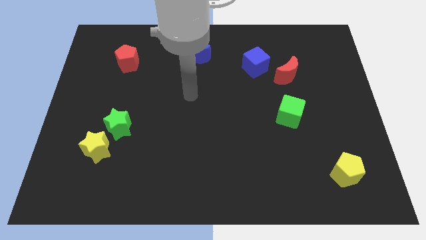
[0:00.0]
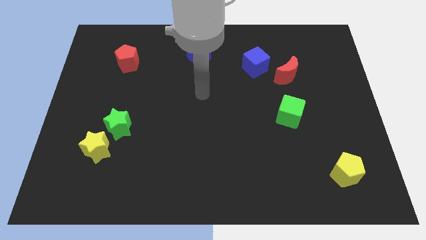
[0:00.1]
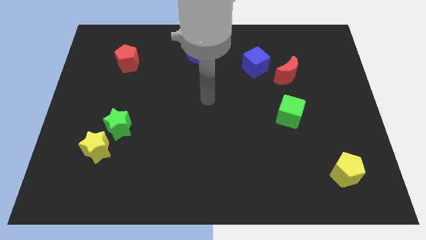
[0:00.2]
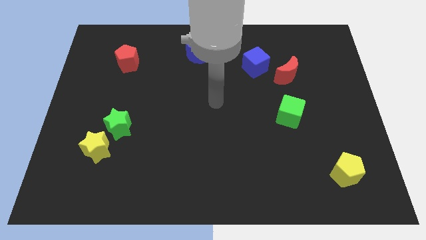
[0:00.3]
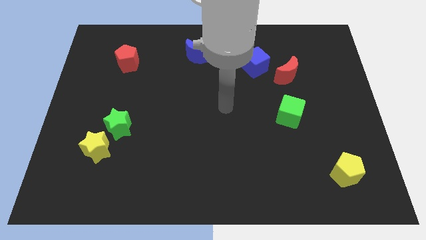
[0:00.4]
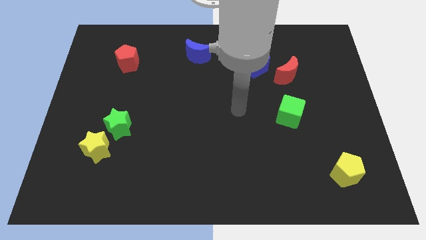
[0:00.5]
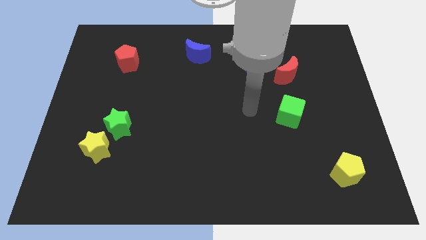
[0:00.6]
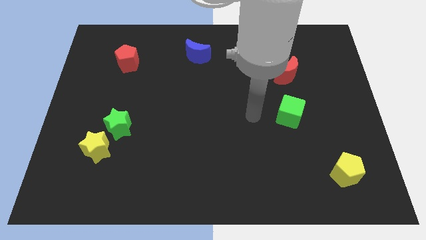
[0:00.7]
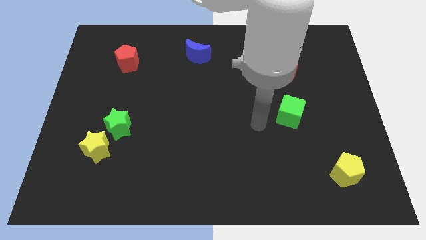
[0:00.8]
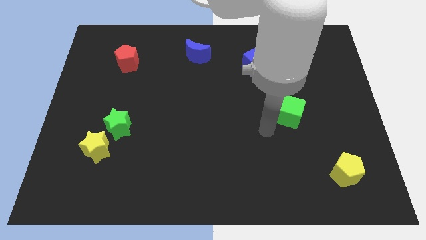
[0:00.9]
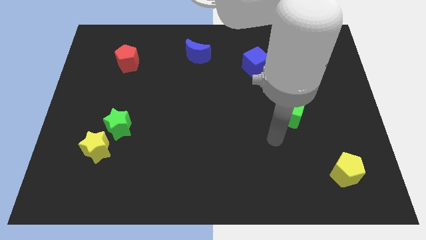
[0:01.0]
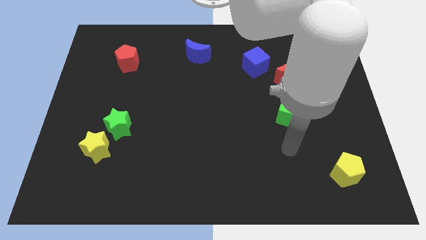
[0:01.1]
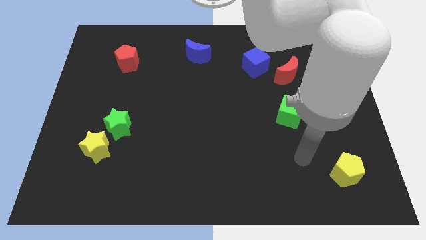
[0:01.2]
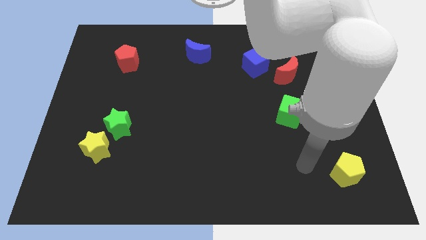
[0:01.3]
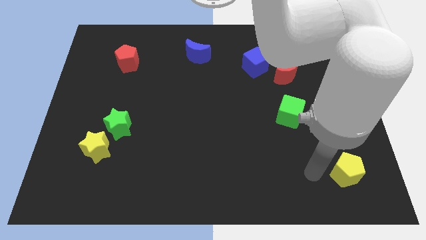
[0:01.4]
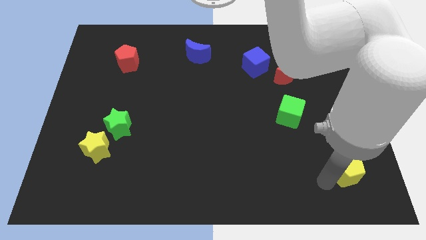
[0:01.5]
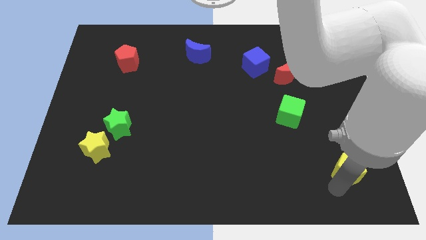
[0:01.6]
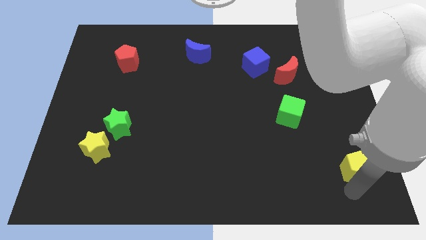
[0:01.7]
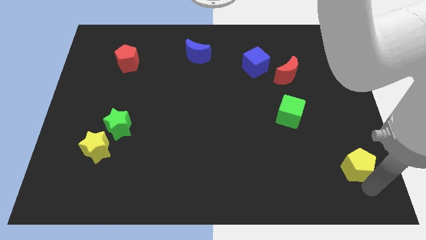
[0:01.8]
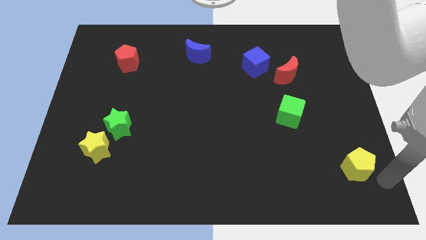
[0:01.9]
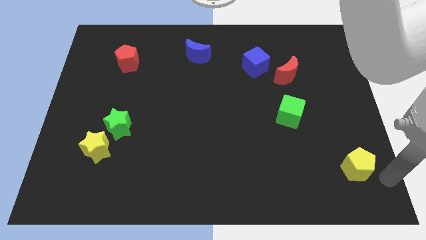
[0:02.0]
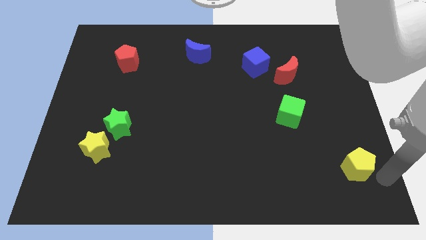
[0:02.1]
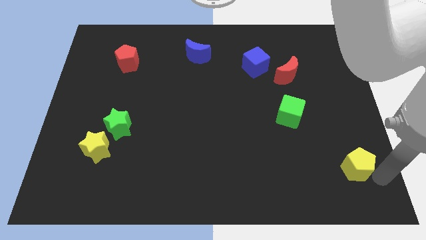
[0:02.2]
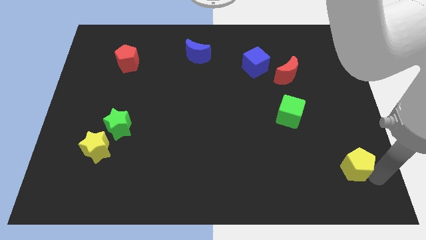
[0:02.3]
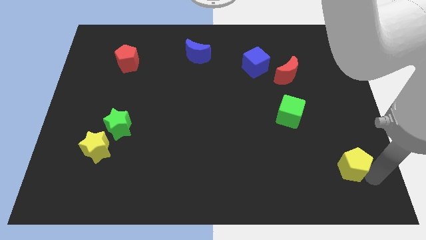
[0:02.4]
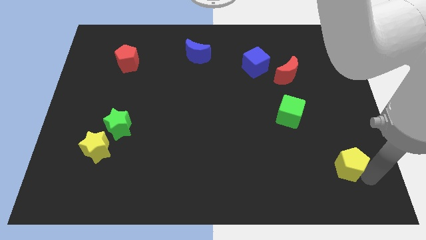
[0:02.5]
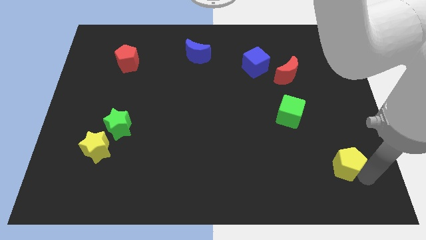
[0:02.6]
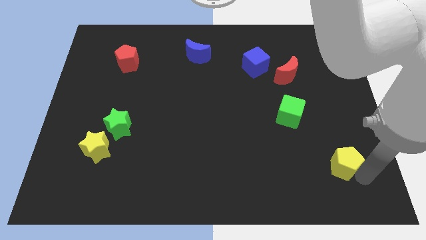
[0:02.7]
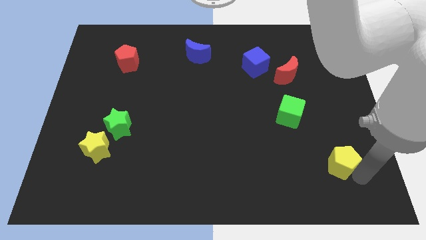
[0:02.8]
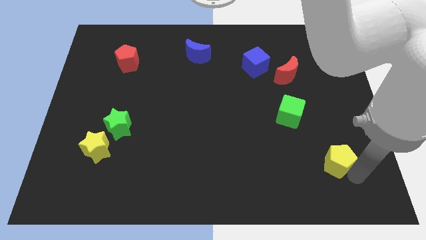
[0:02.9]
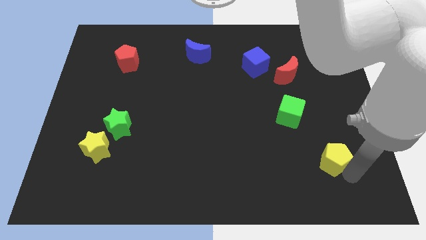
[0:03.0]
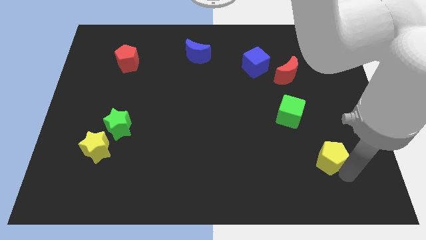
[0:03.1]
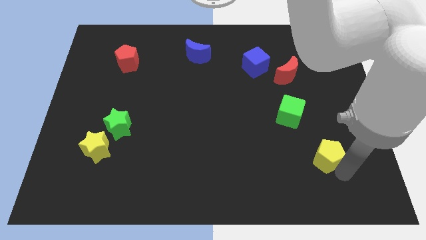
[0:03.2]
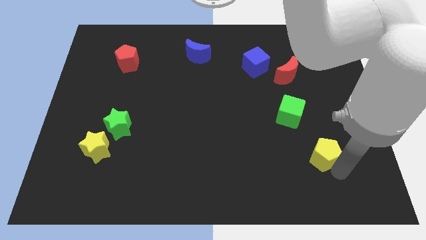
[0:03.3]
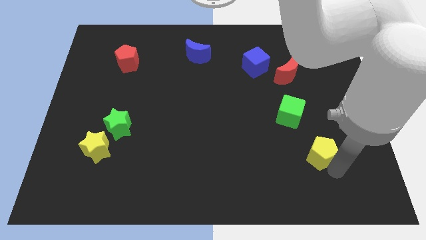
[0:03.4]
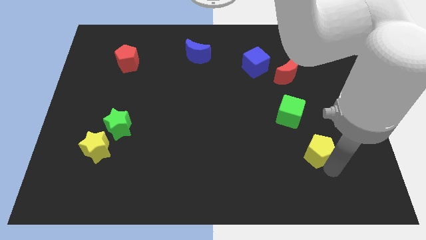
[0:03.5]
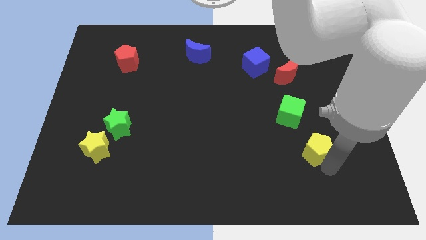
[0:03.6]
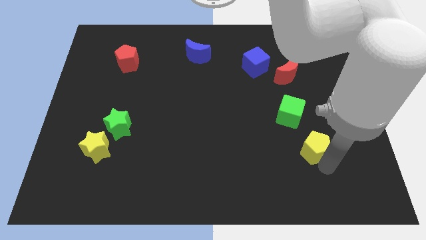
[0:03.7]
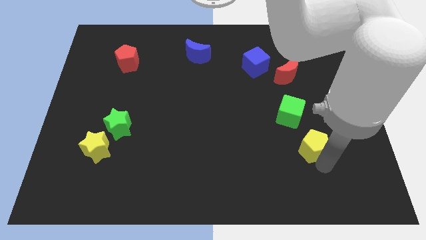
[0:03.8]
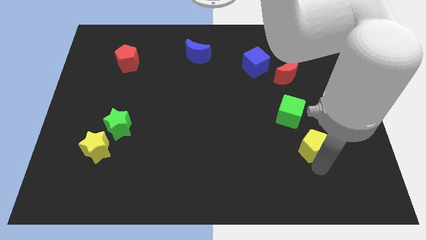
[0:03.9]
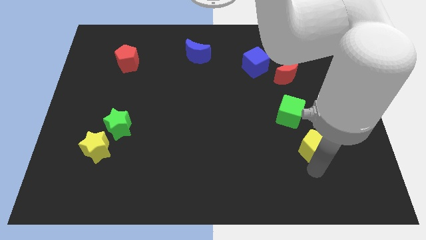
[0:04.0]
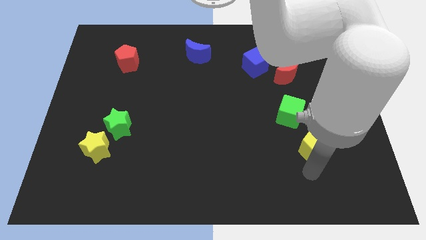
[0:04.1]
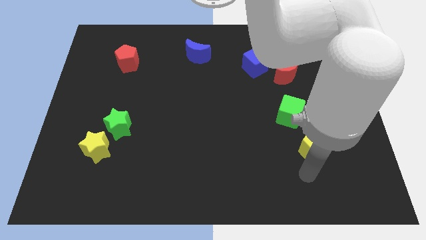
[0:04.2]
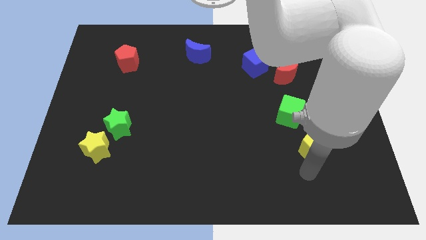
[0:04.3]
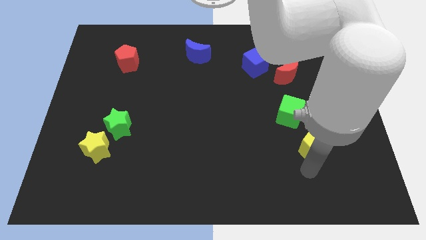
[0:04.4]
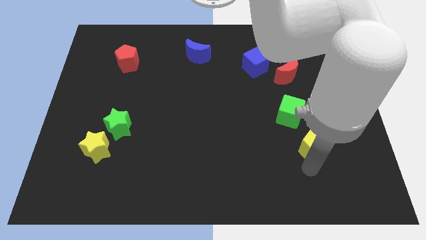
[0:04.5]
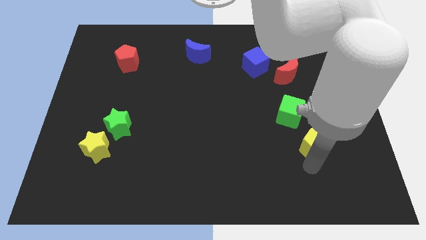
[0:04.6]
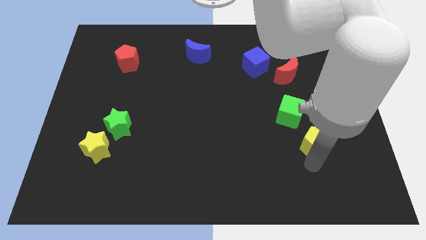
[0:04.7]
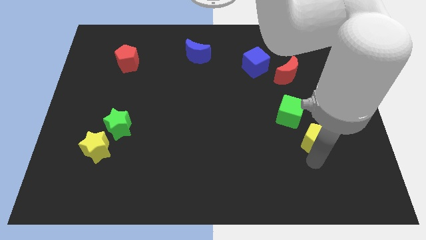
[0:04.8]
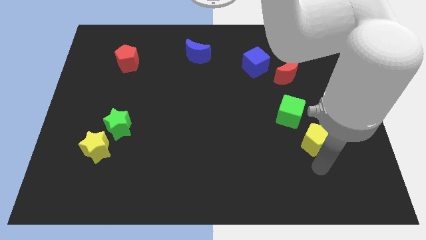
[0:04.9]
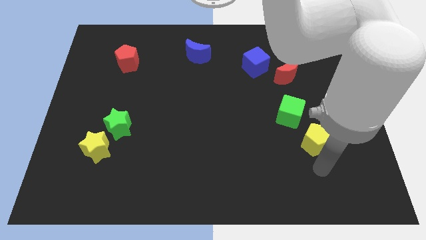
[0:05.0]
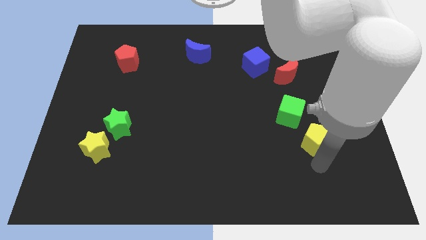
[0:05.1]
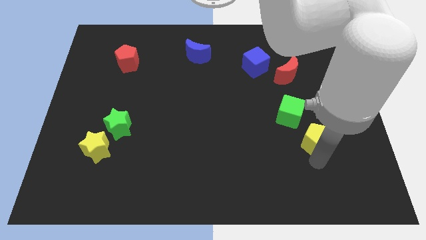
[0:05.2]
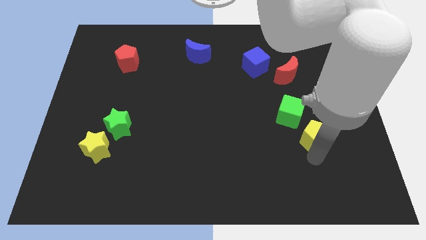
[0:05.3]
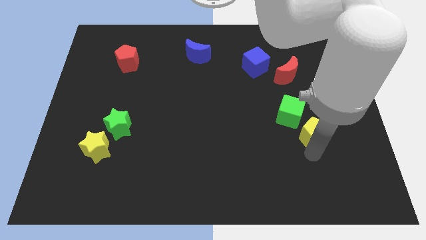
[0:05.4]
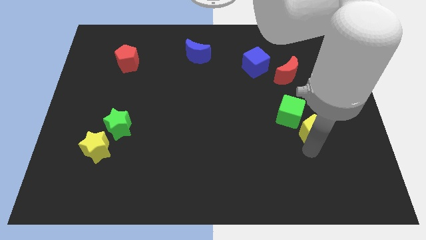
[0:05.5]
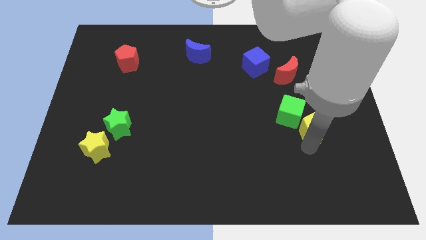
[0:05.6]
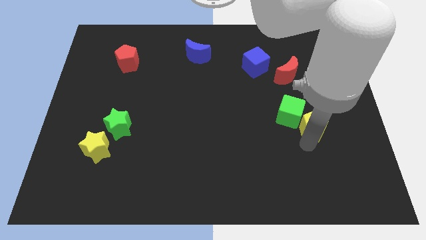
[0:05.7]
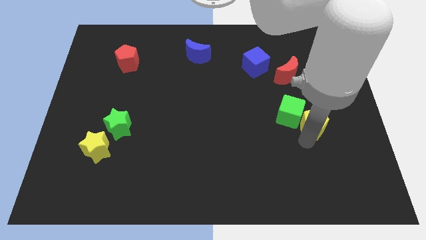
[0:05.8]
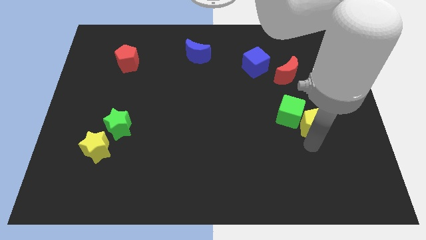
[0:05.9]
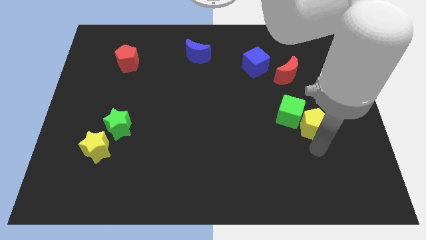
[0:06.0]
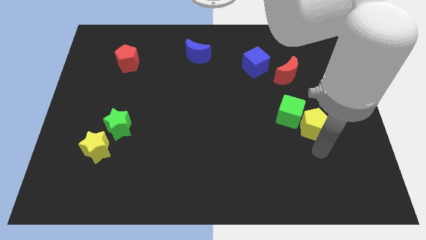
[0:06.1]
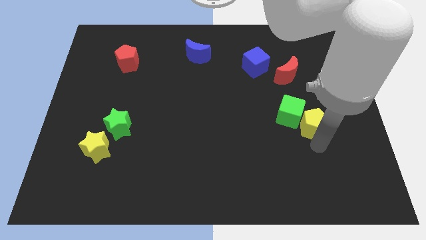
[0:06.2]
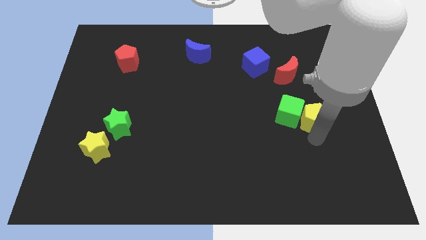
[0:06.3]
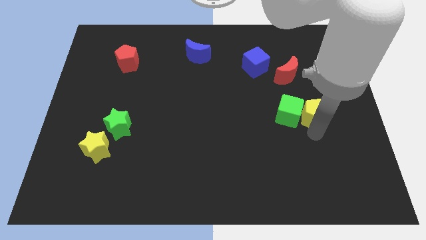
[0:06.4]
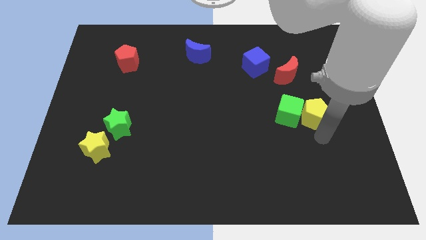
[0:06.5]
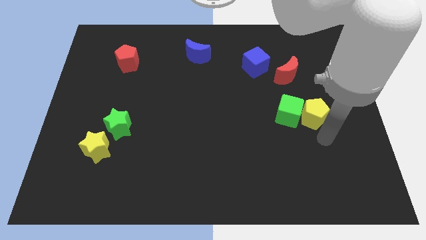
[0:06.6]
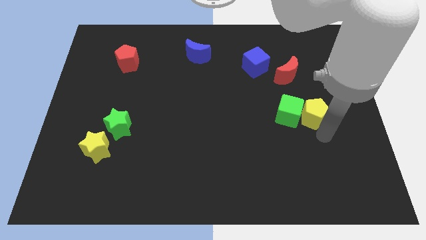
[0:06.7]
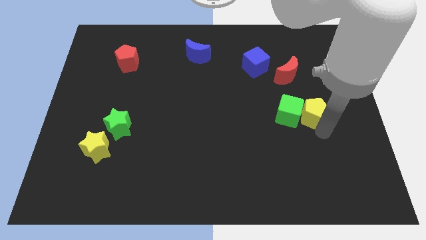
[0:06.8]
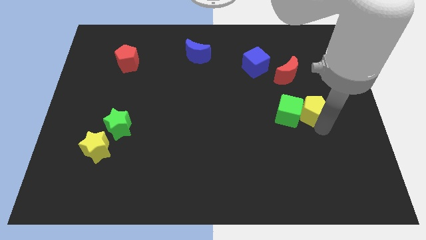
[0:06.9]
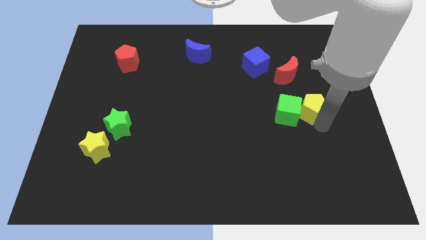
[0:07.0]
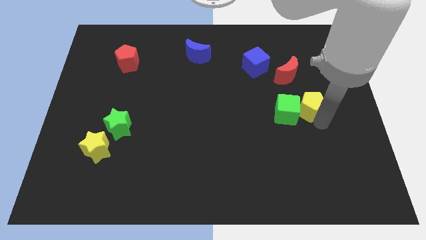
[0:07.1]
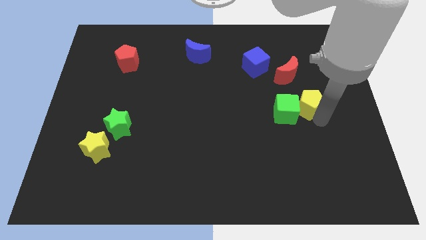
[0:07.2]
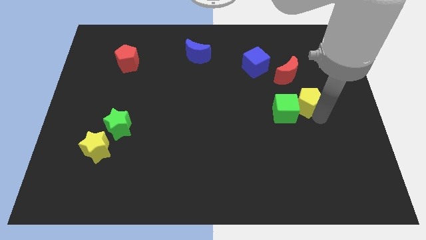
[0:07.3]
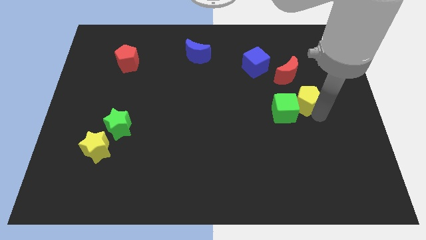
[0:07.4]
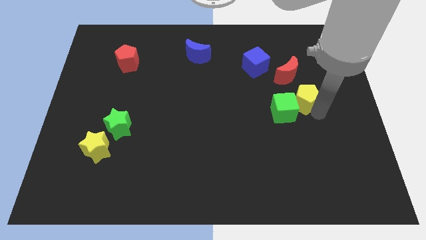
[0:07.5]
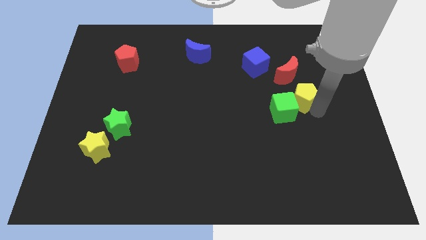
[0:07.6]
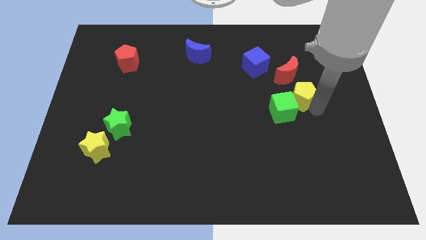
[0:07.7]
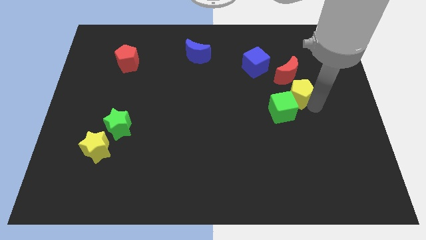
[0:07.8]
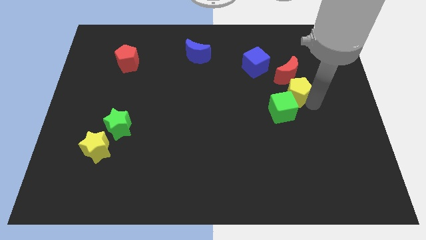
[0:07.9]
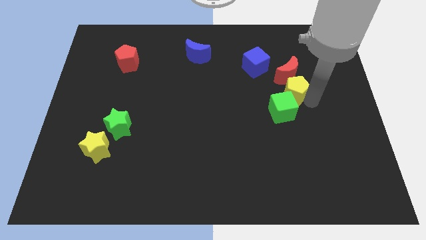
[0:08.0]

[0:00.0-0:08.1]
move the yellow pentagon towards the red moon

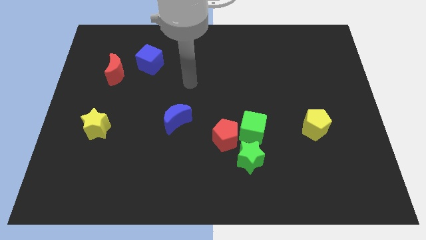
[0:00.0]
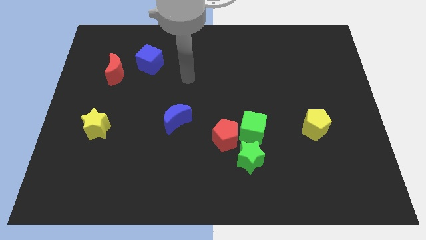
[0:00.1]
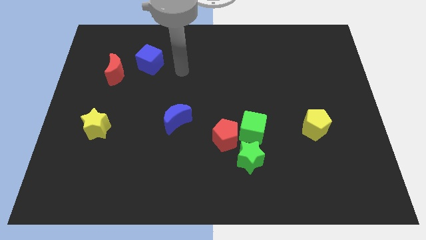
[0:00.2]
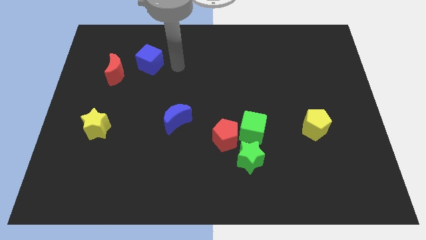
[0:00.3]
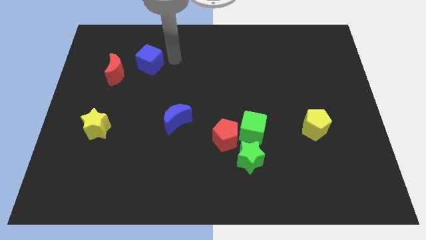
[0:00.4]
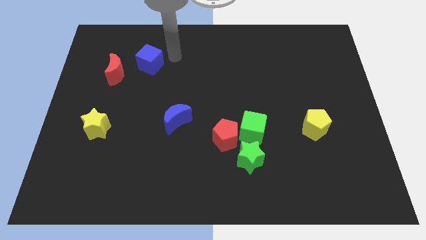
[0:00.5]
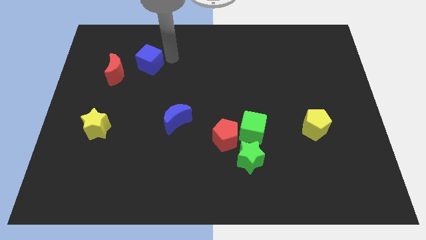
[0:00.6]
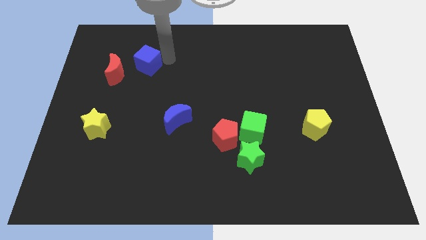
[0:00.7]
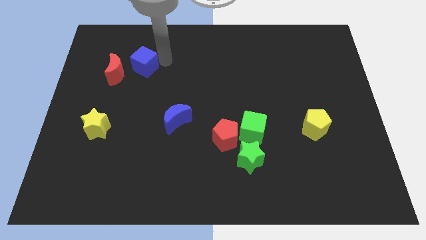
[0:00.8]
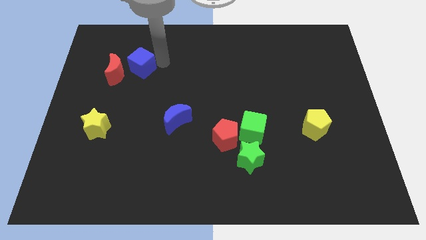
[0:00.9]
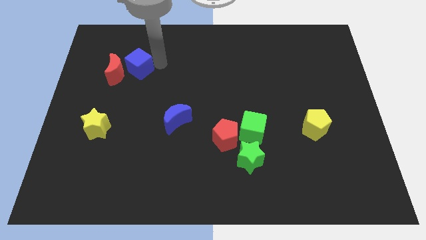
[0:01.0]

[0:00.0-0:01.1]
slide the blue cube close to the red moon
